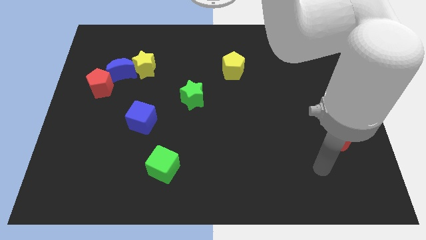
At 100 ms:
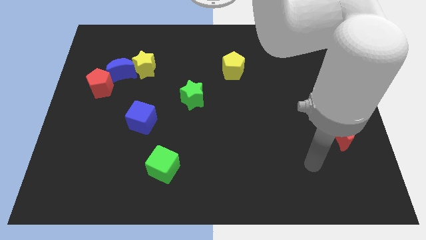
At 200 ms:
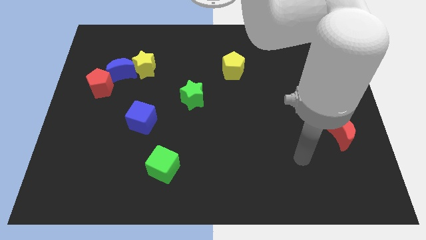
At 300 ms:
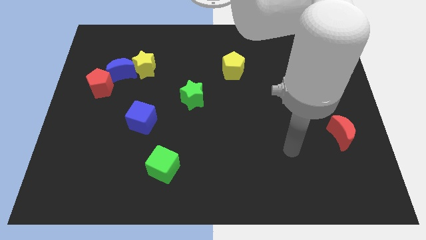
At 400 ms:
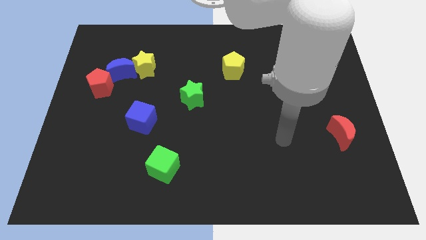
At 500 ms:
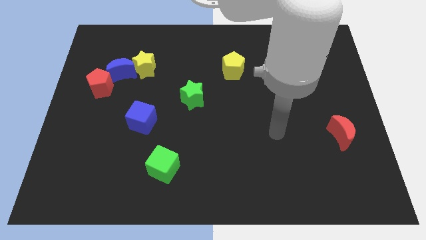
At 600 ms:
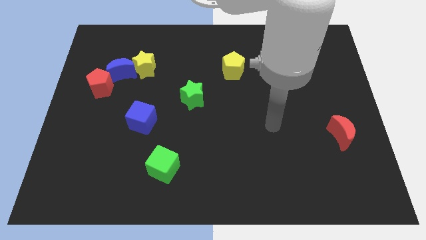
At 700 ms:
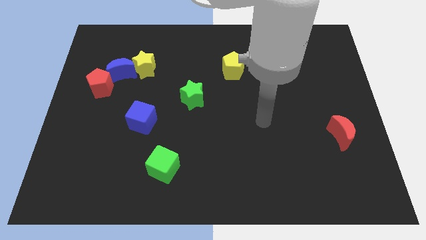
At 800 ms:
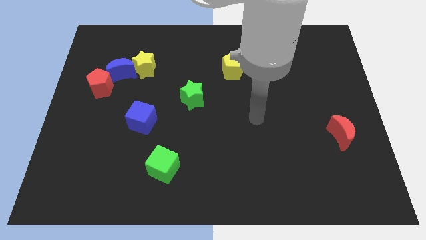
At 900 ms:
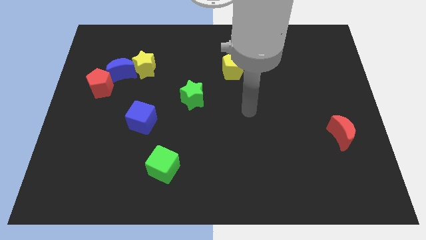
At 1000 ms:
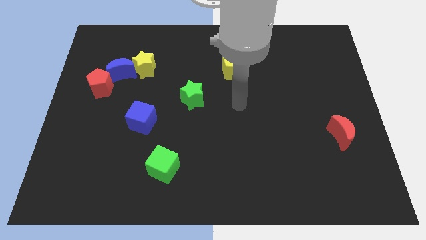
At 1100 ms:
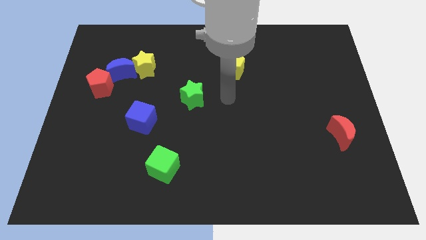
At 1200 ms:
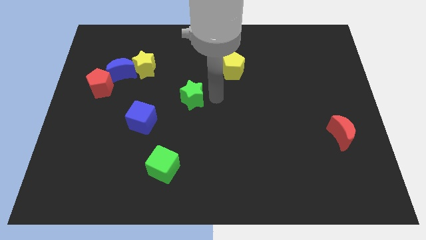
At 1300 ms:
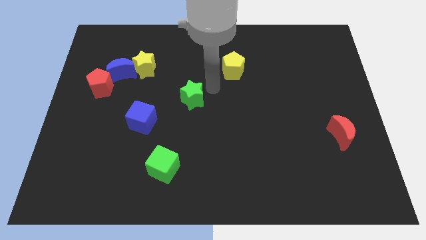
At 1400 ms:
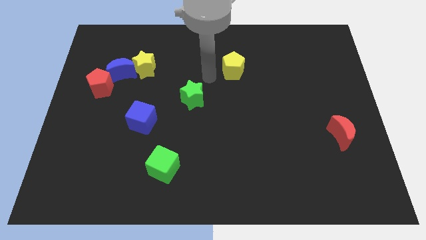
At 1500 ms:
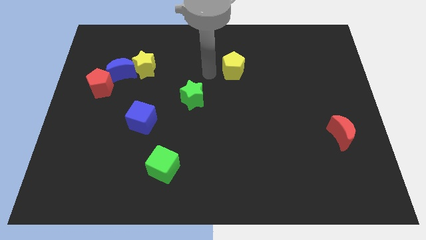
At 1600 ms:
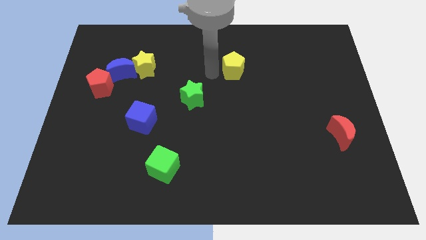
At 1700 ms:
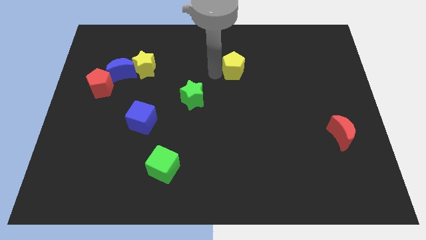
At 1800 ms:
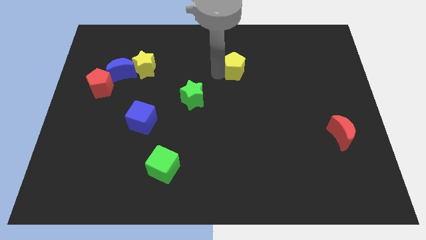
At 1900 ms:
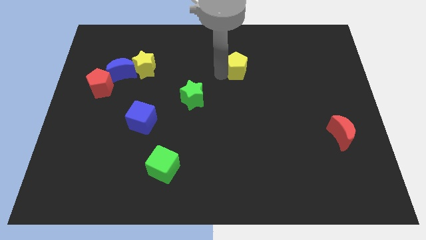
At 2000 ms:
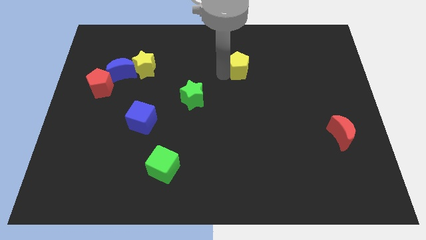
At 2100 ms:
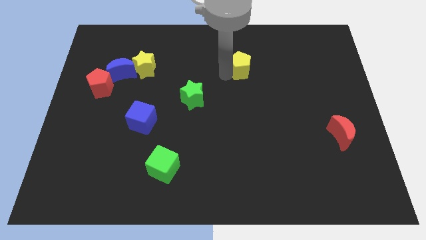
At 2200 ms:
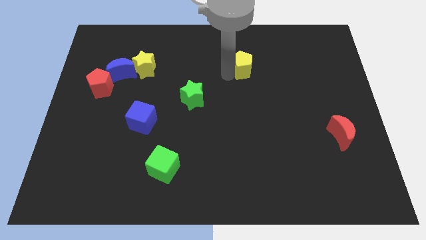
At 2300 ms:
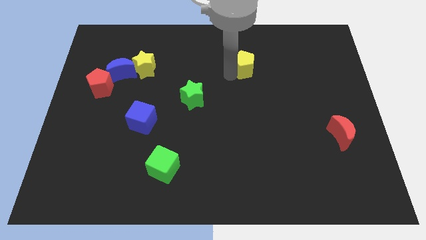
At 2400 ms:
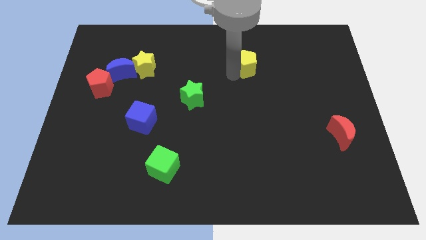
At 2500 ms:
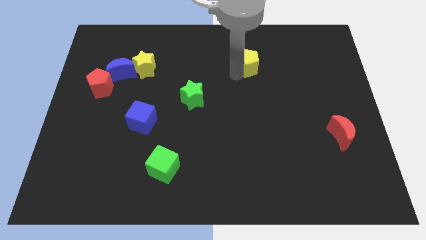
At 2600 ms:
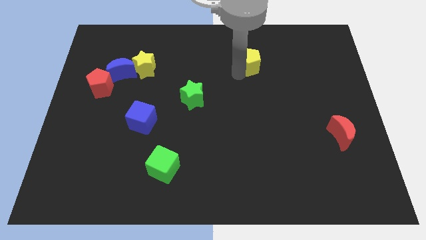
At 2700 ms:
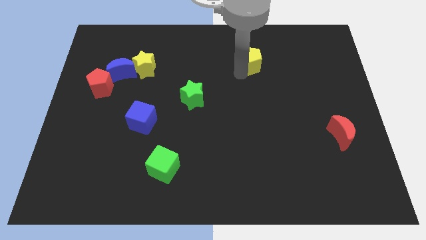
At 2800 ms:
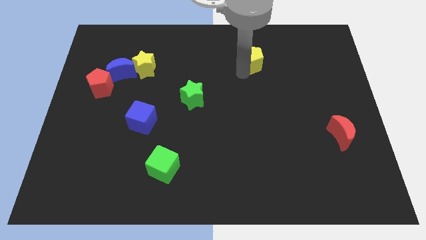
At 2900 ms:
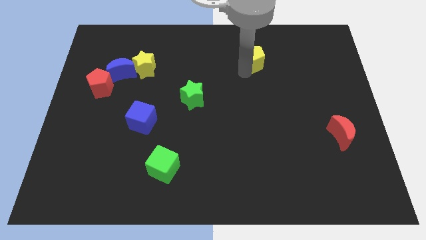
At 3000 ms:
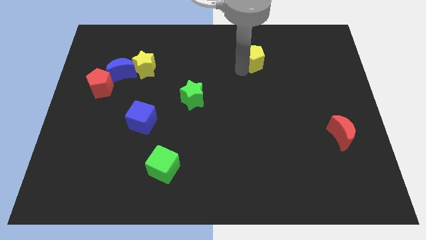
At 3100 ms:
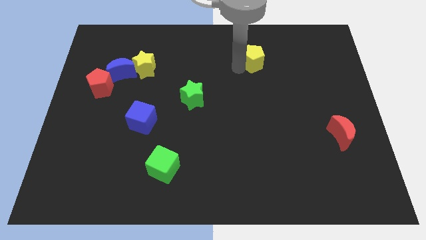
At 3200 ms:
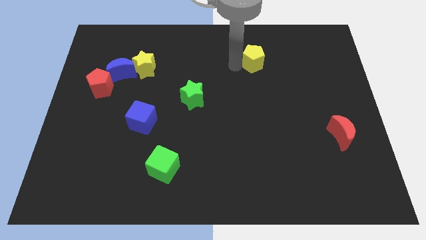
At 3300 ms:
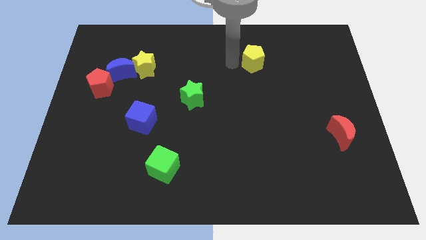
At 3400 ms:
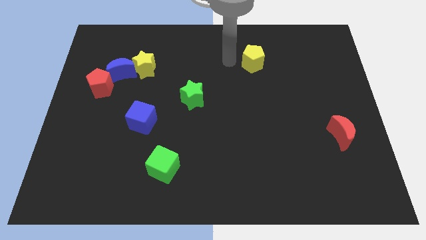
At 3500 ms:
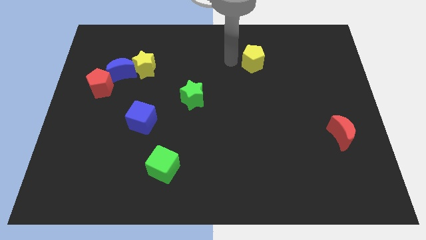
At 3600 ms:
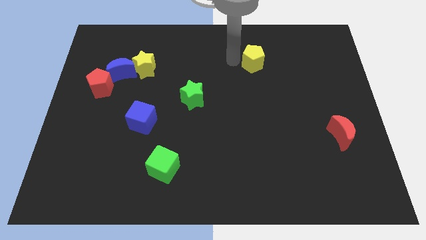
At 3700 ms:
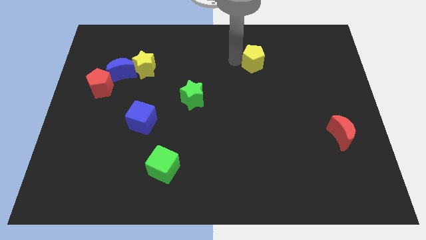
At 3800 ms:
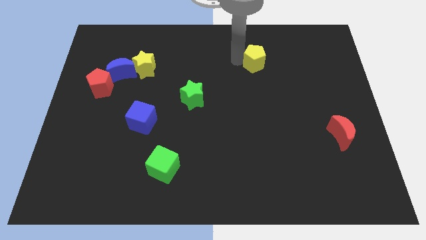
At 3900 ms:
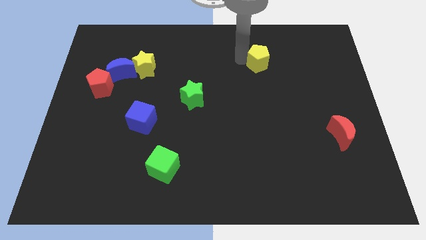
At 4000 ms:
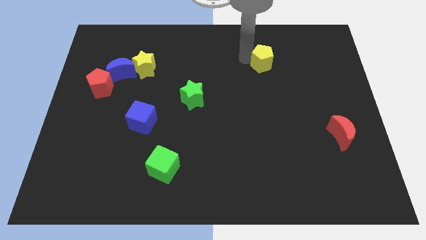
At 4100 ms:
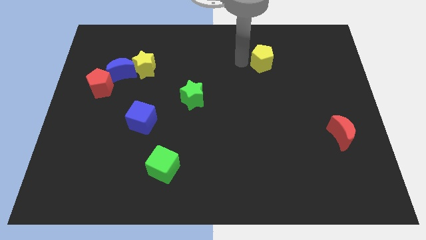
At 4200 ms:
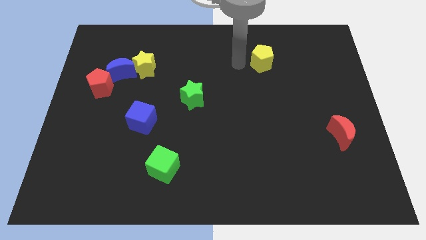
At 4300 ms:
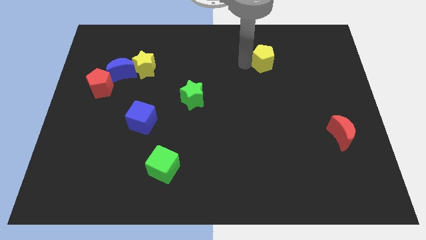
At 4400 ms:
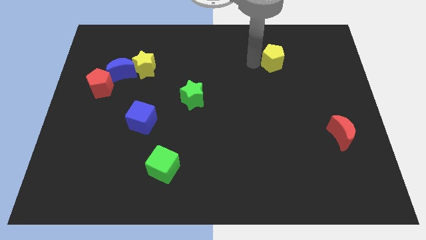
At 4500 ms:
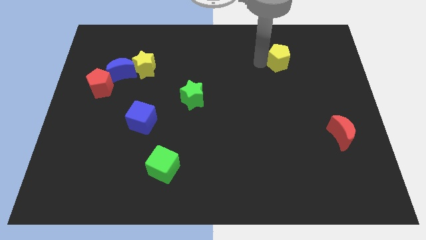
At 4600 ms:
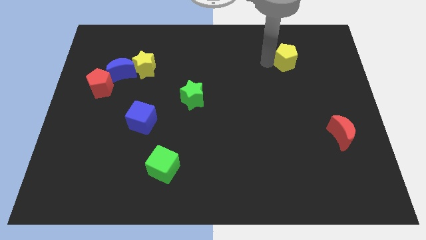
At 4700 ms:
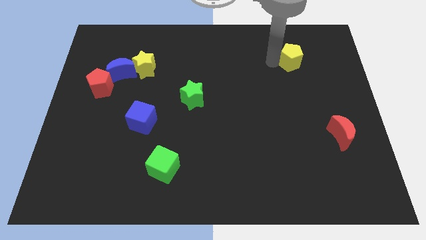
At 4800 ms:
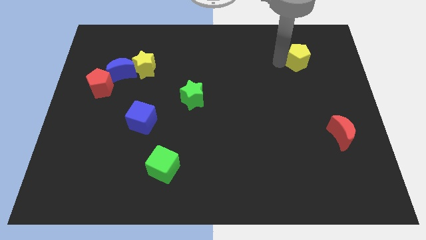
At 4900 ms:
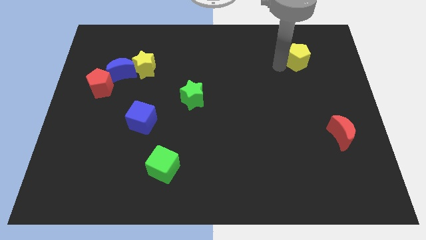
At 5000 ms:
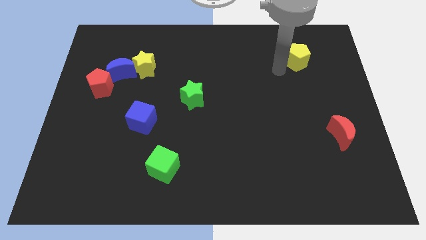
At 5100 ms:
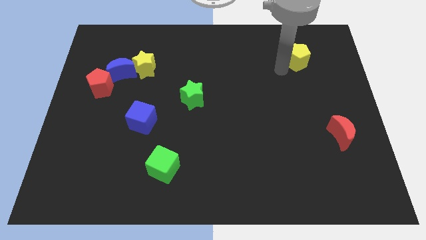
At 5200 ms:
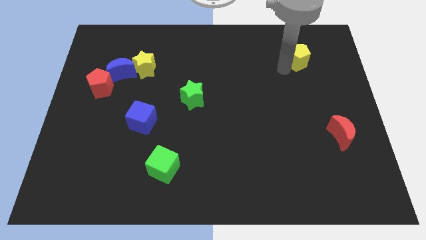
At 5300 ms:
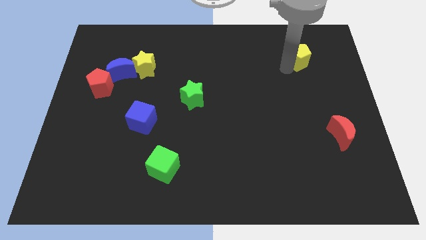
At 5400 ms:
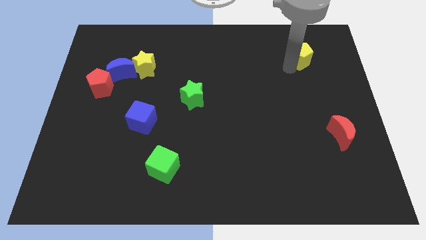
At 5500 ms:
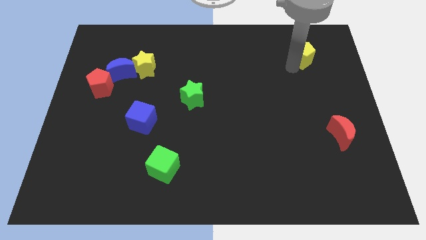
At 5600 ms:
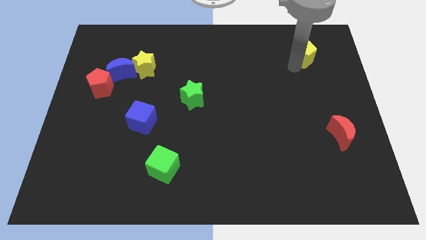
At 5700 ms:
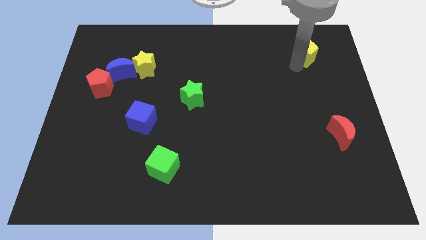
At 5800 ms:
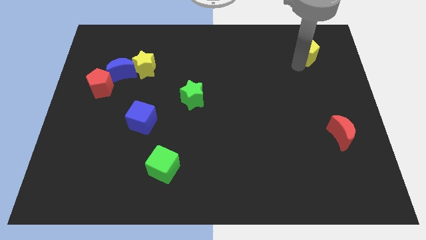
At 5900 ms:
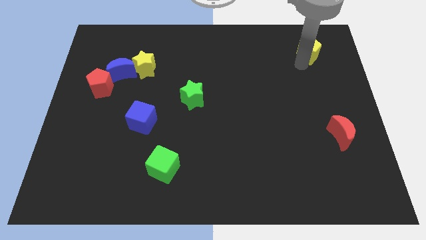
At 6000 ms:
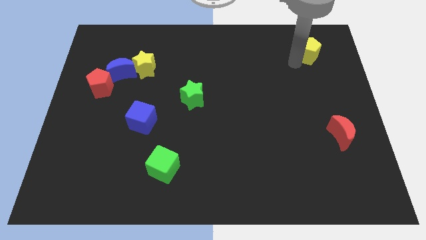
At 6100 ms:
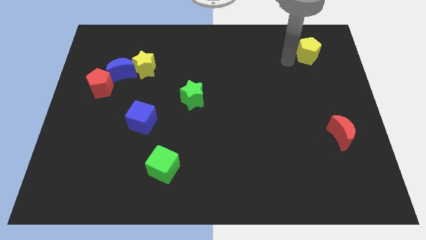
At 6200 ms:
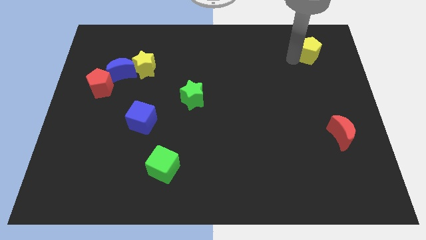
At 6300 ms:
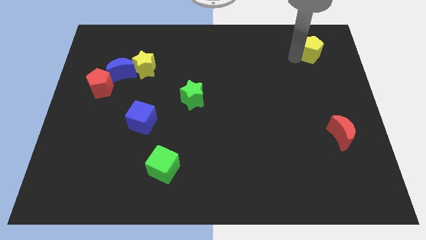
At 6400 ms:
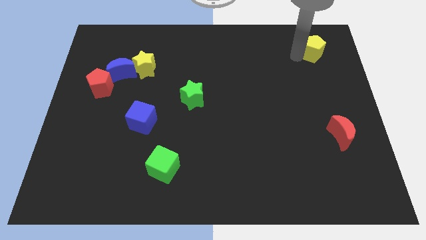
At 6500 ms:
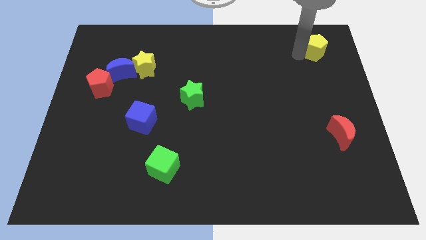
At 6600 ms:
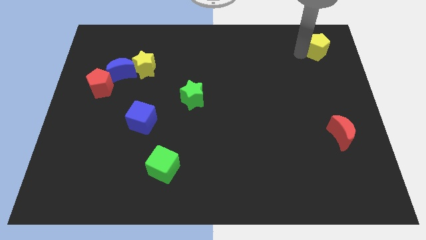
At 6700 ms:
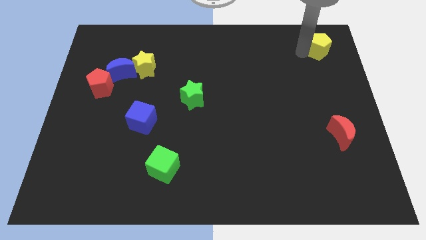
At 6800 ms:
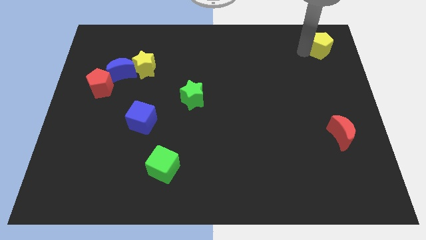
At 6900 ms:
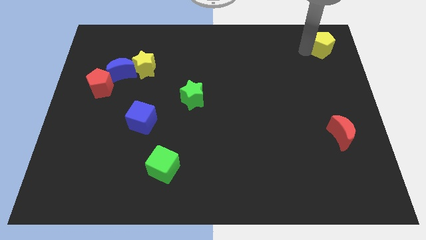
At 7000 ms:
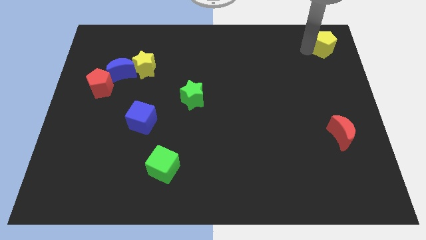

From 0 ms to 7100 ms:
put the yellow pentagon to the upper right corner
